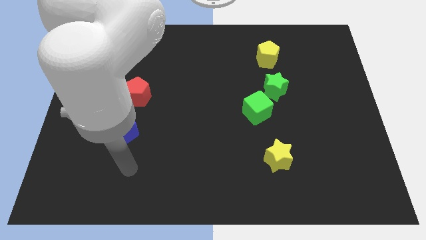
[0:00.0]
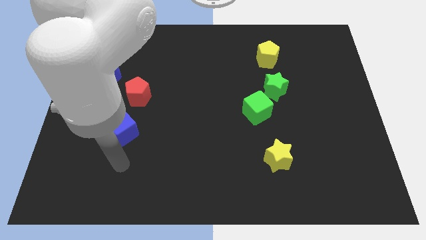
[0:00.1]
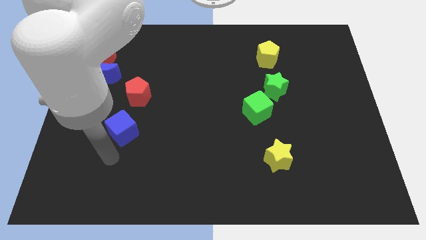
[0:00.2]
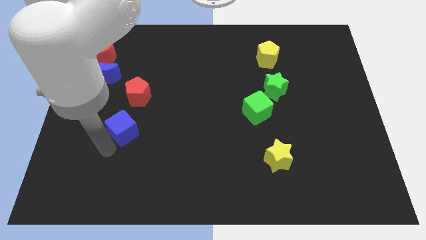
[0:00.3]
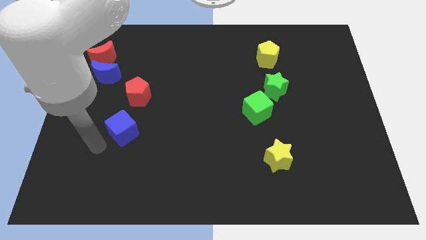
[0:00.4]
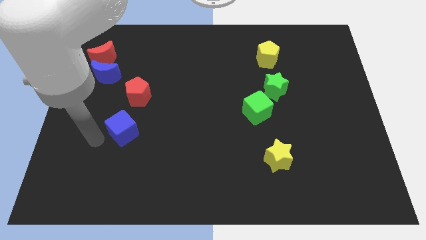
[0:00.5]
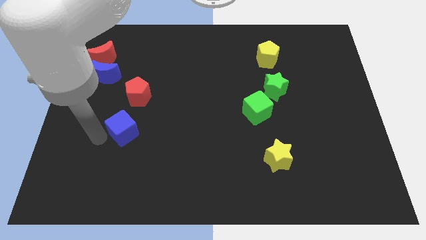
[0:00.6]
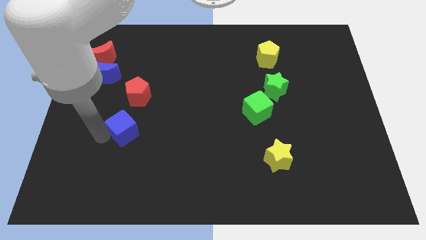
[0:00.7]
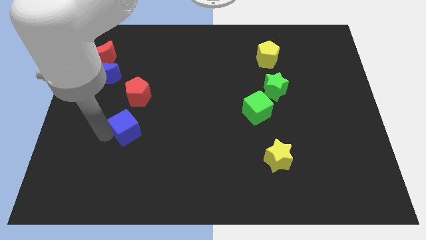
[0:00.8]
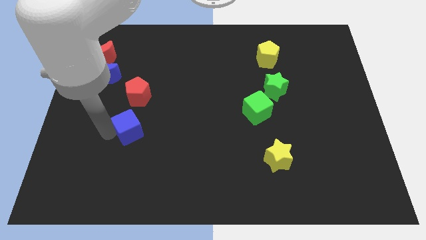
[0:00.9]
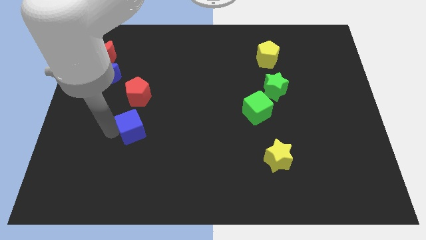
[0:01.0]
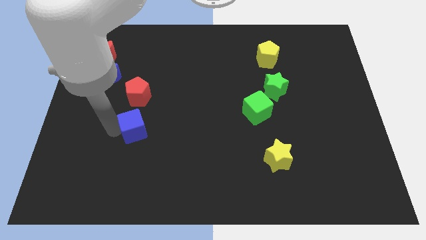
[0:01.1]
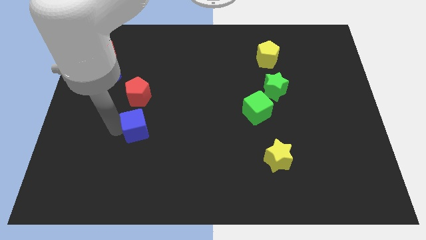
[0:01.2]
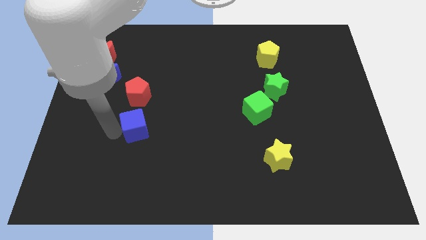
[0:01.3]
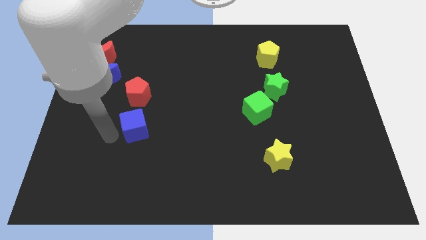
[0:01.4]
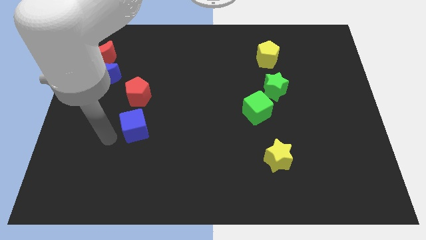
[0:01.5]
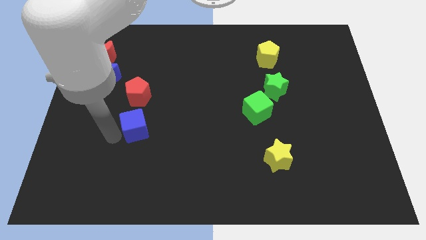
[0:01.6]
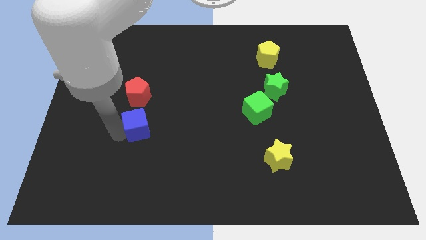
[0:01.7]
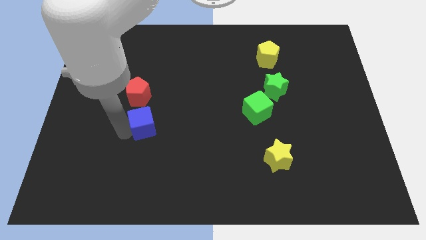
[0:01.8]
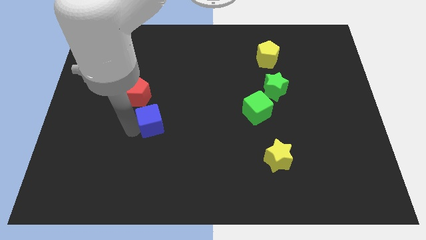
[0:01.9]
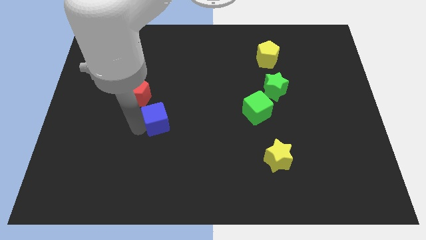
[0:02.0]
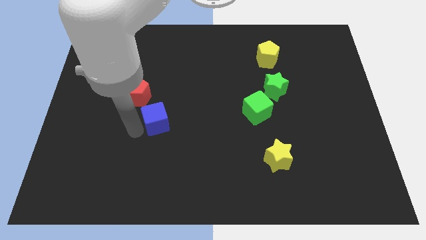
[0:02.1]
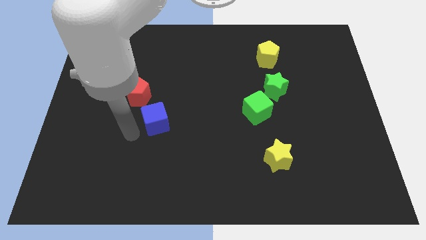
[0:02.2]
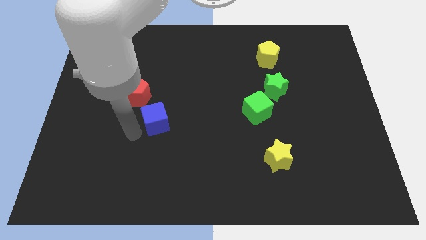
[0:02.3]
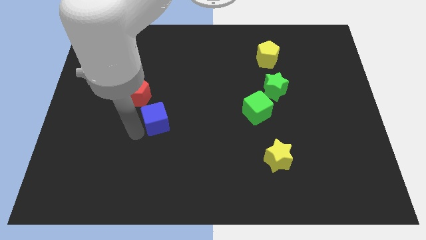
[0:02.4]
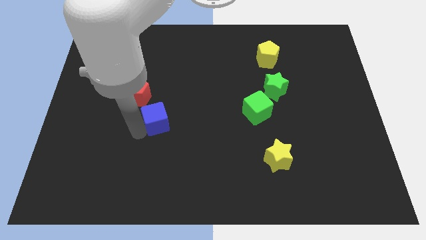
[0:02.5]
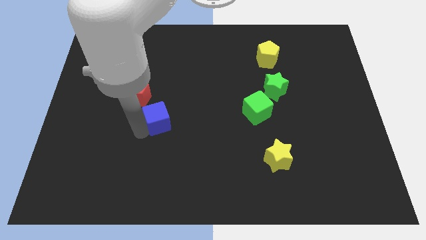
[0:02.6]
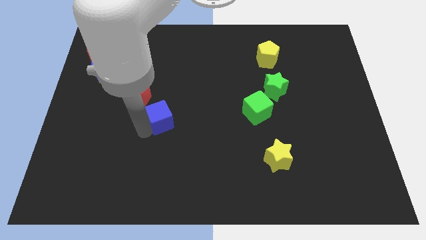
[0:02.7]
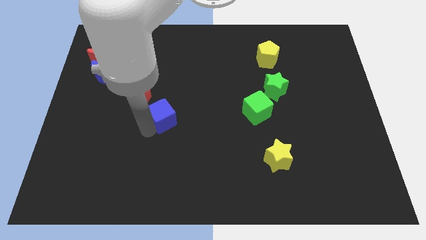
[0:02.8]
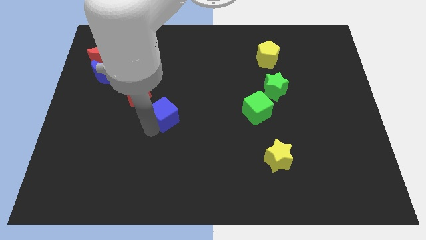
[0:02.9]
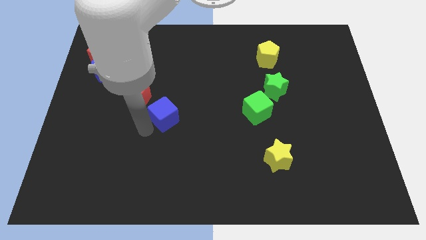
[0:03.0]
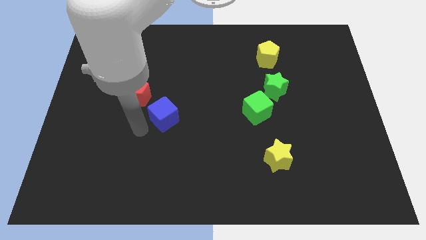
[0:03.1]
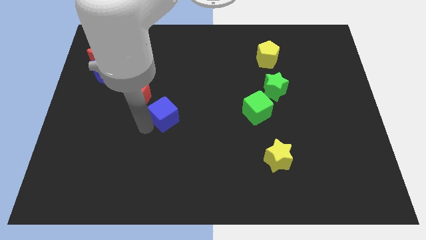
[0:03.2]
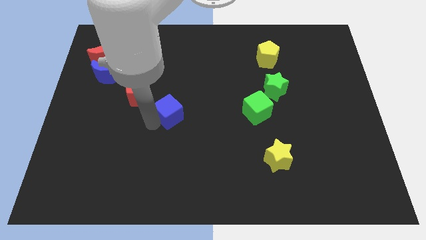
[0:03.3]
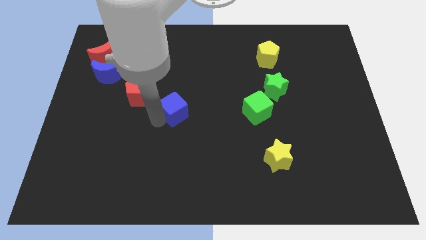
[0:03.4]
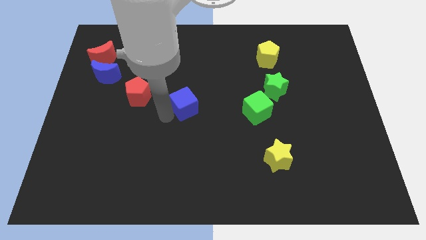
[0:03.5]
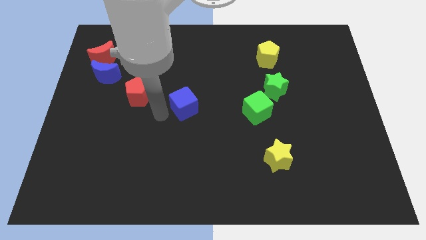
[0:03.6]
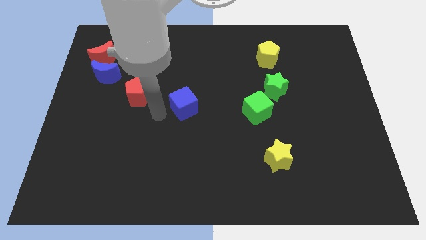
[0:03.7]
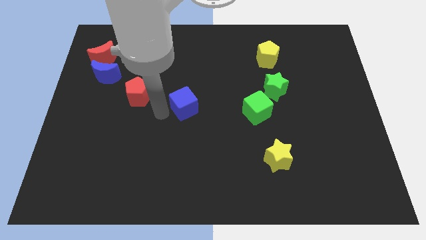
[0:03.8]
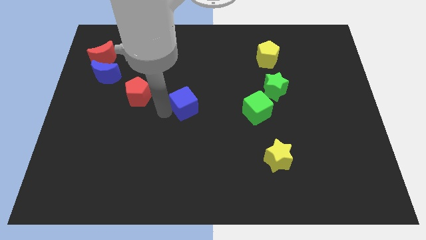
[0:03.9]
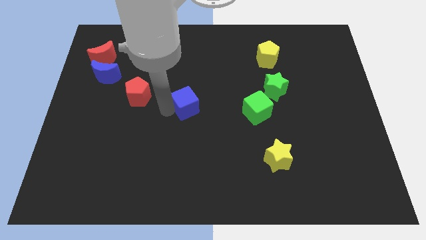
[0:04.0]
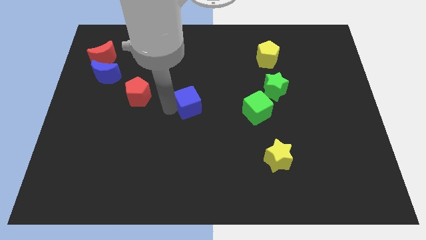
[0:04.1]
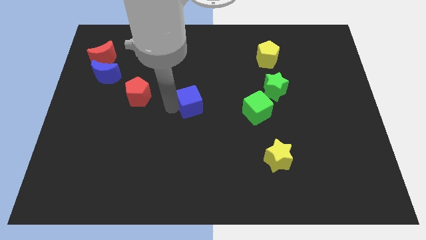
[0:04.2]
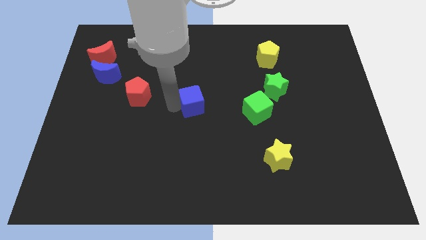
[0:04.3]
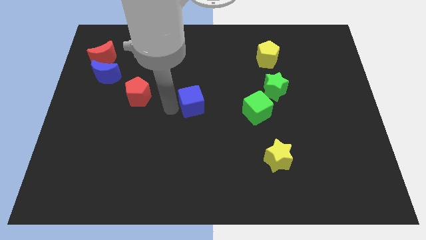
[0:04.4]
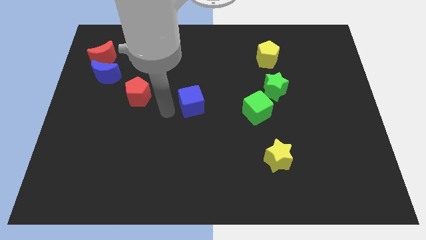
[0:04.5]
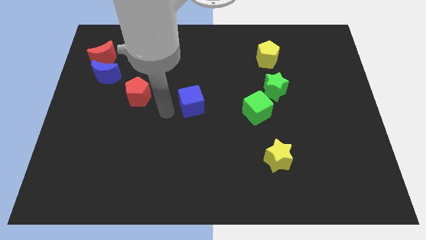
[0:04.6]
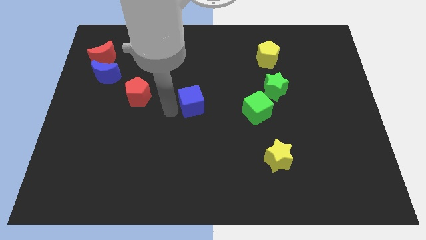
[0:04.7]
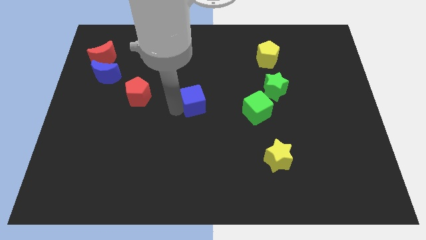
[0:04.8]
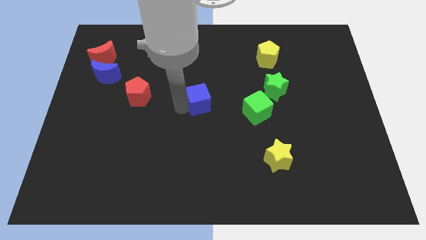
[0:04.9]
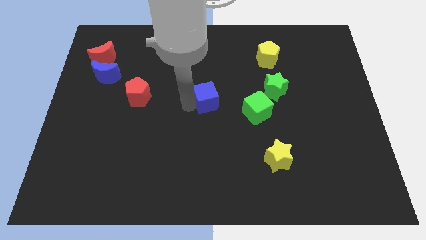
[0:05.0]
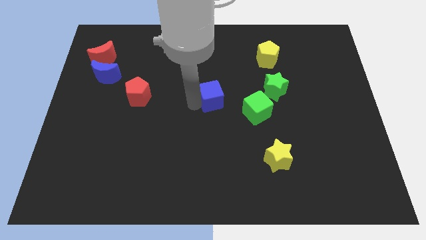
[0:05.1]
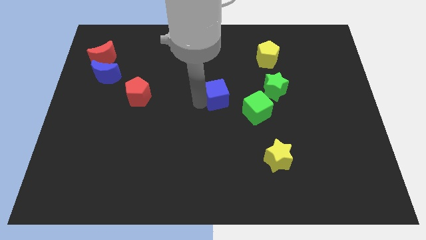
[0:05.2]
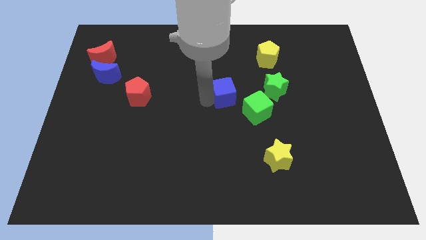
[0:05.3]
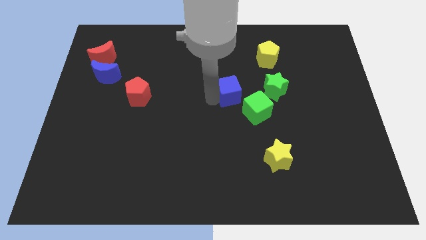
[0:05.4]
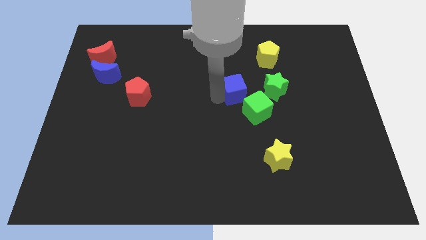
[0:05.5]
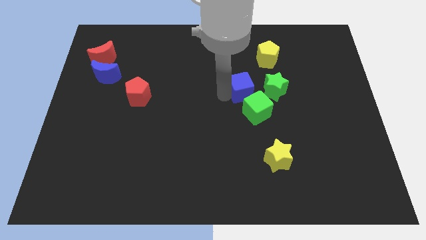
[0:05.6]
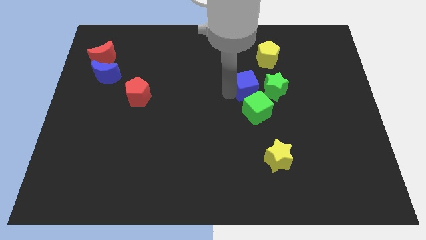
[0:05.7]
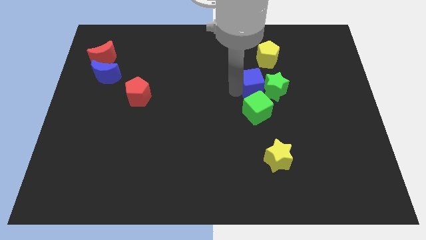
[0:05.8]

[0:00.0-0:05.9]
put the blue cube next to the green star

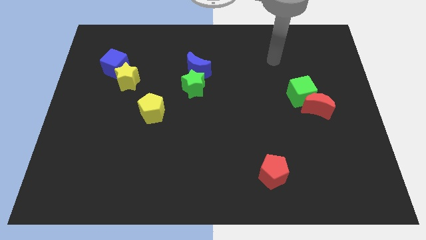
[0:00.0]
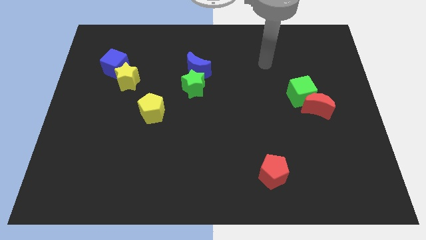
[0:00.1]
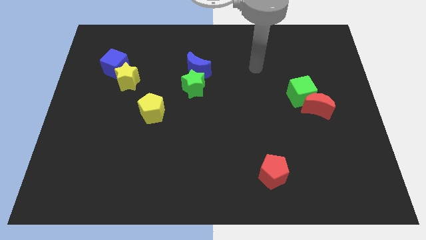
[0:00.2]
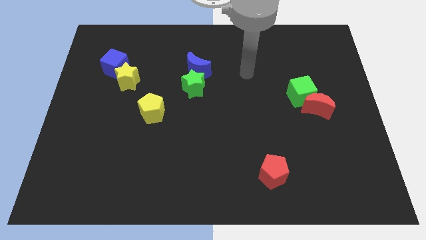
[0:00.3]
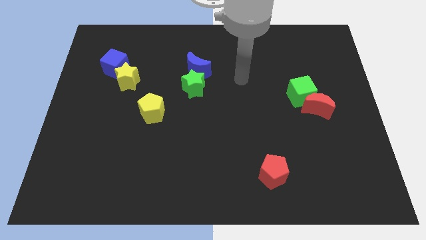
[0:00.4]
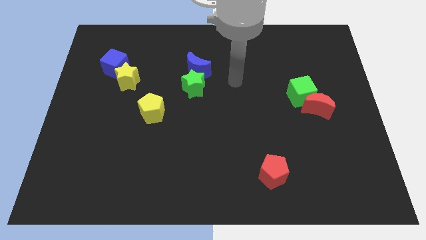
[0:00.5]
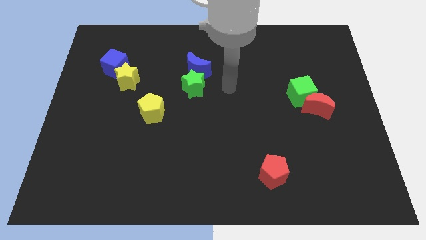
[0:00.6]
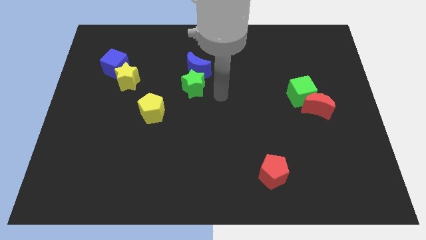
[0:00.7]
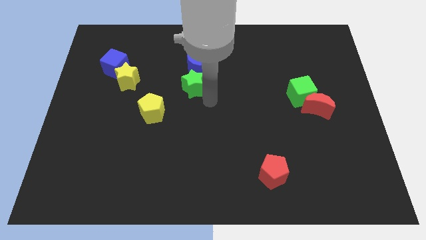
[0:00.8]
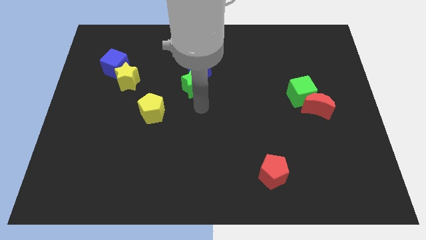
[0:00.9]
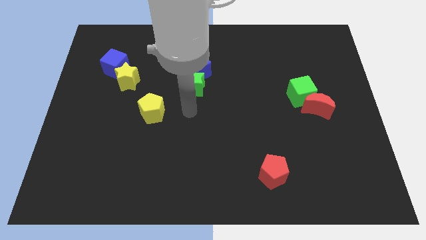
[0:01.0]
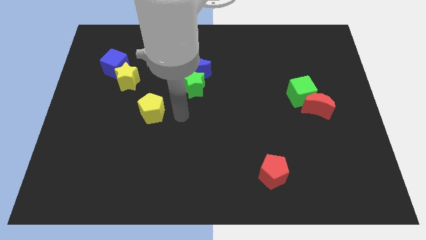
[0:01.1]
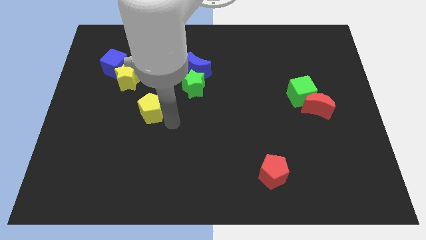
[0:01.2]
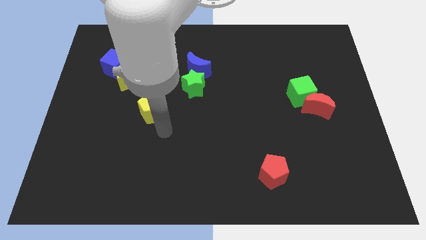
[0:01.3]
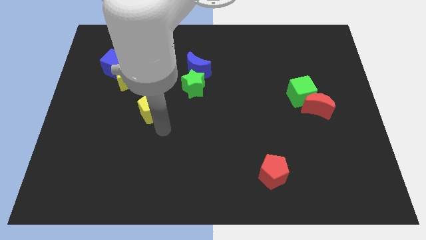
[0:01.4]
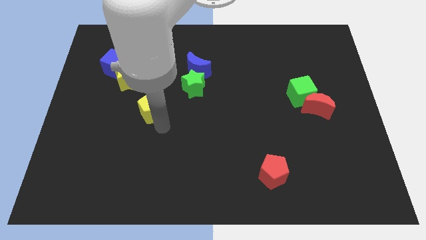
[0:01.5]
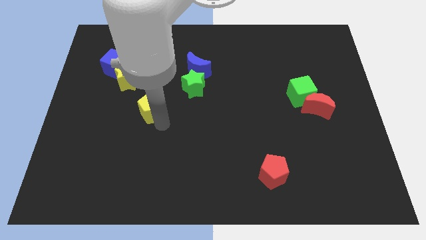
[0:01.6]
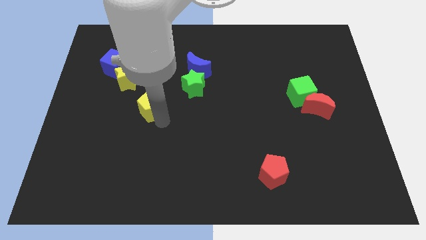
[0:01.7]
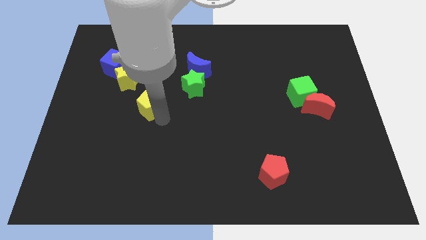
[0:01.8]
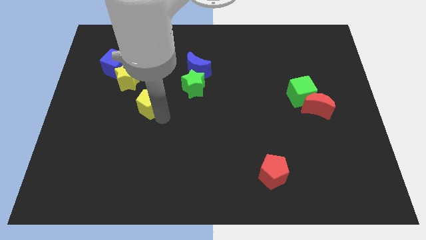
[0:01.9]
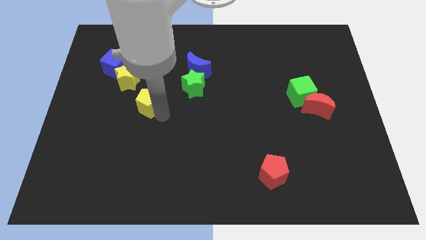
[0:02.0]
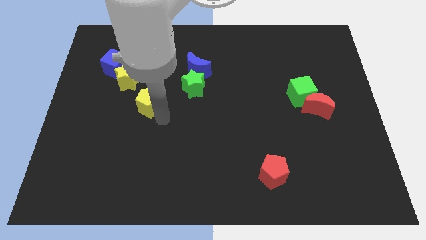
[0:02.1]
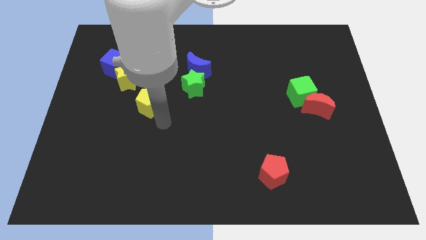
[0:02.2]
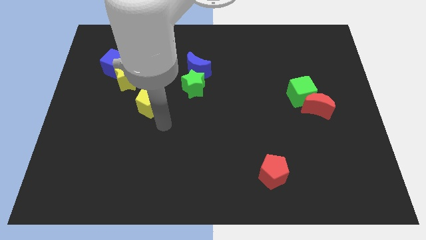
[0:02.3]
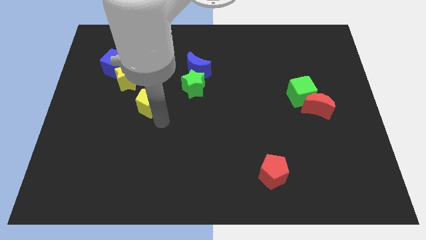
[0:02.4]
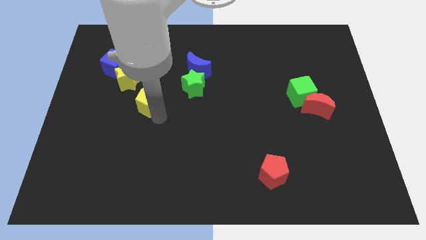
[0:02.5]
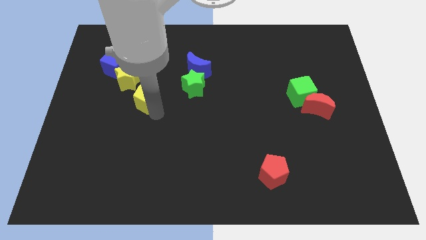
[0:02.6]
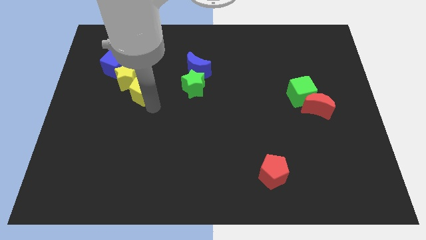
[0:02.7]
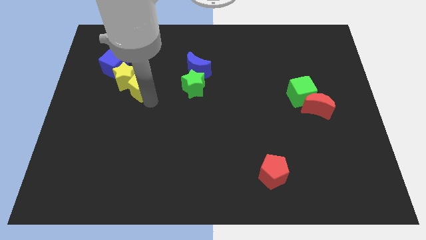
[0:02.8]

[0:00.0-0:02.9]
slide the yellow pentagon to the yellow star
